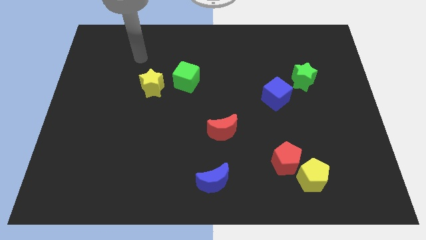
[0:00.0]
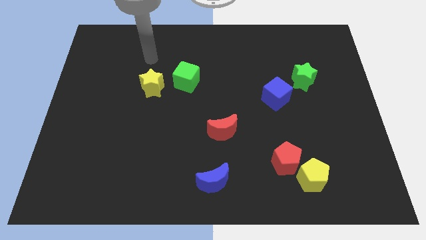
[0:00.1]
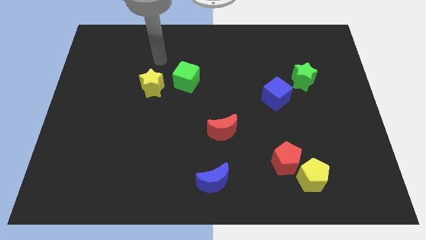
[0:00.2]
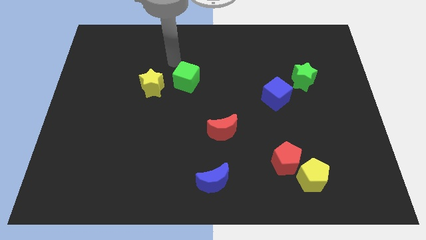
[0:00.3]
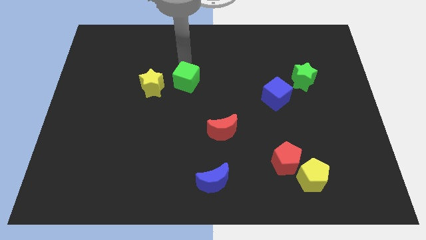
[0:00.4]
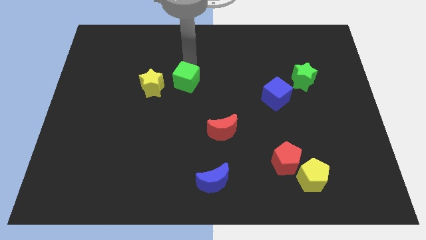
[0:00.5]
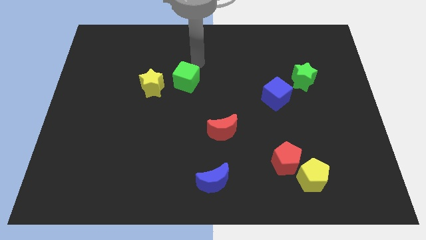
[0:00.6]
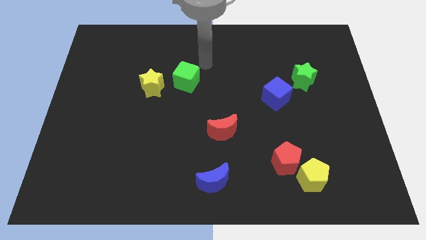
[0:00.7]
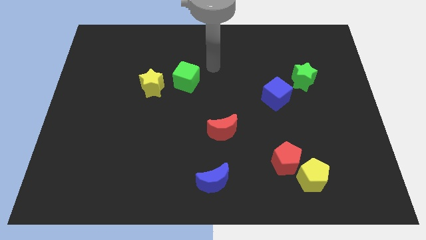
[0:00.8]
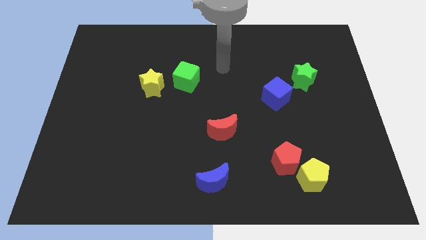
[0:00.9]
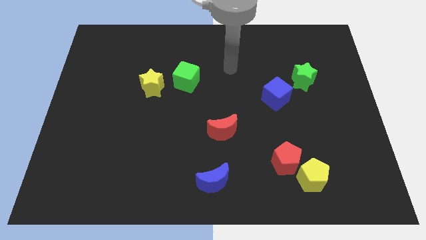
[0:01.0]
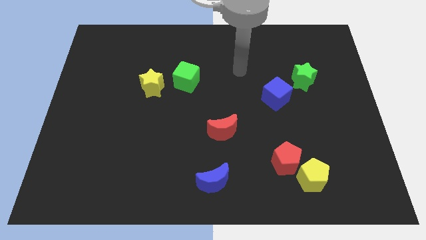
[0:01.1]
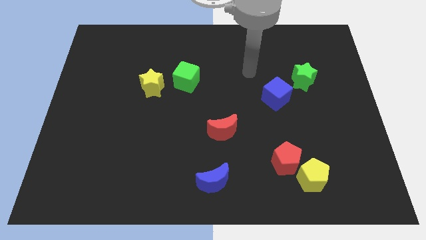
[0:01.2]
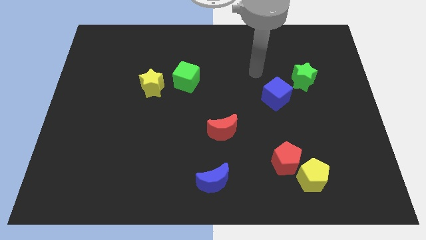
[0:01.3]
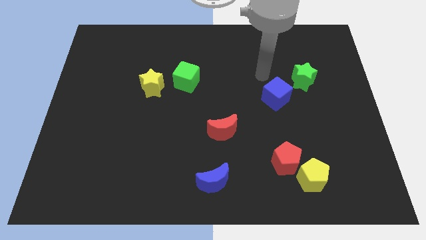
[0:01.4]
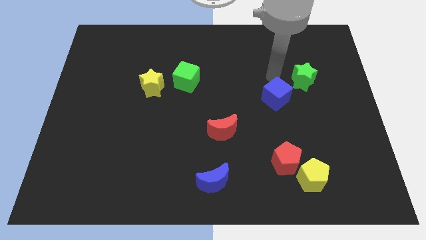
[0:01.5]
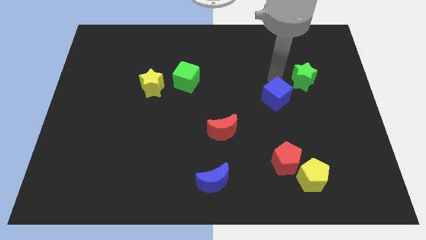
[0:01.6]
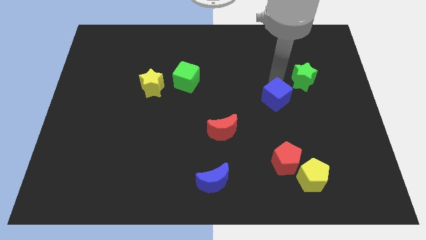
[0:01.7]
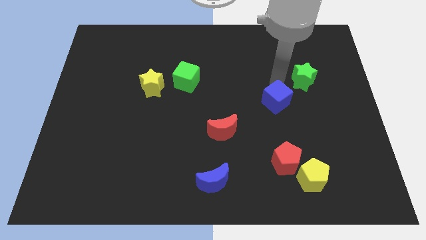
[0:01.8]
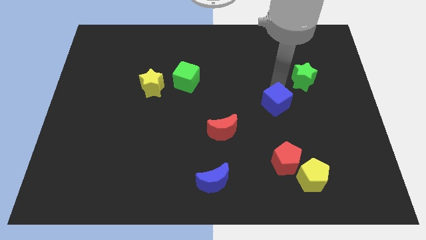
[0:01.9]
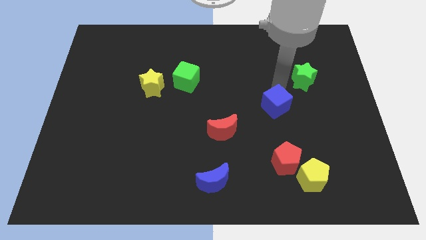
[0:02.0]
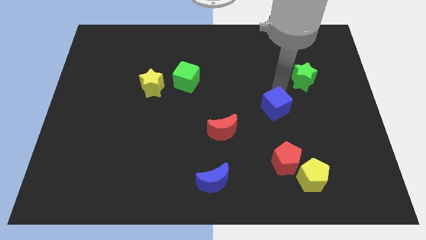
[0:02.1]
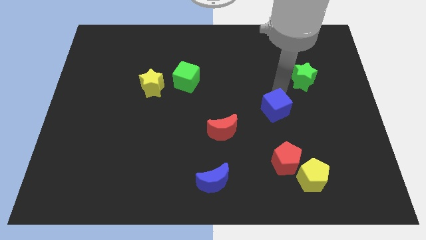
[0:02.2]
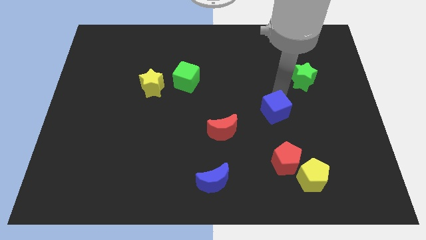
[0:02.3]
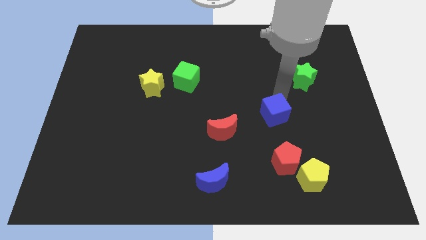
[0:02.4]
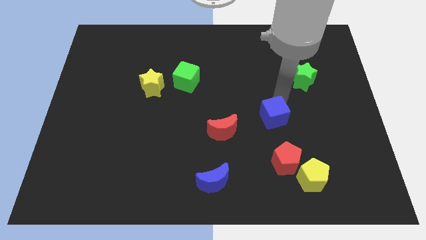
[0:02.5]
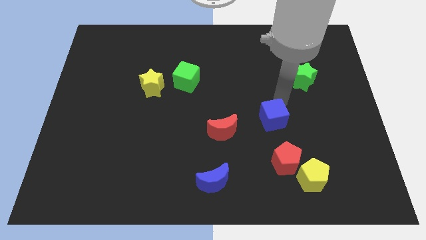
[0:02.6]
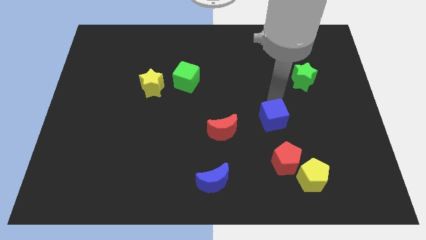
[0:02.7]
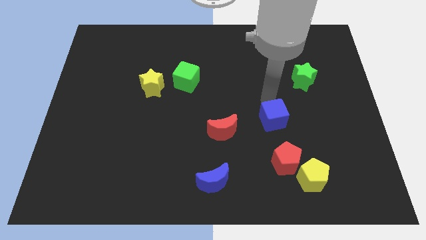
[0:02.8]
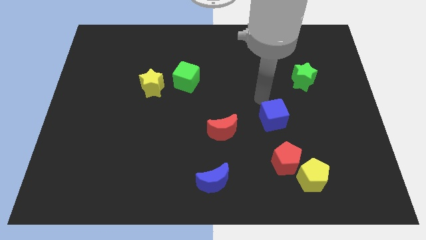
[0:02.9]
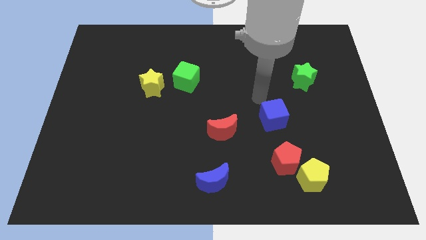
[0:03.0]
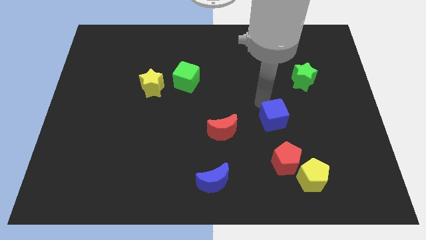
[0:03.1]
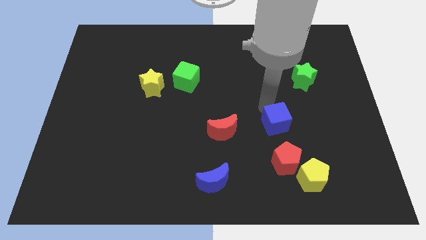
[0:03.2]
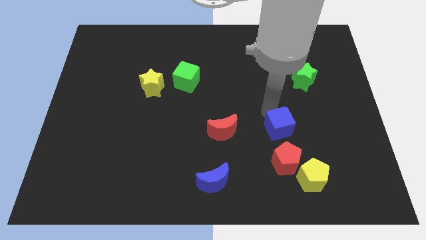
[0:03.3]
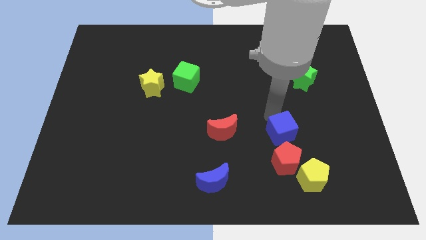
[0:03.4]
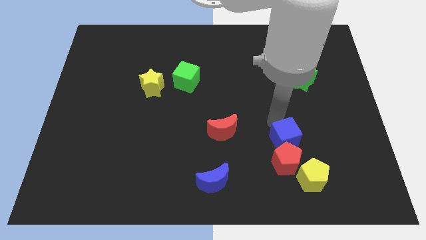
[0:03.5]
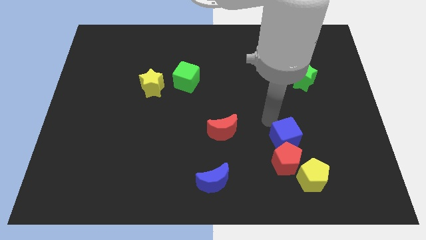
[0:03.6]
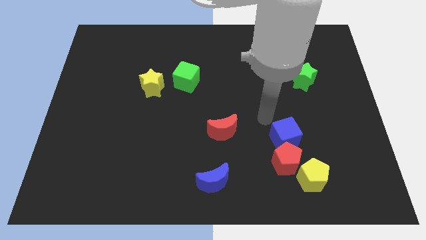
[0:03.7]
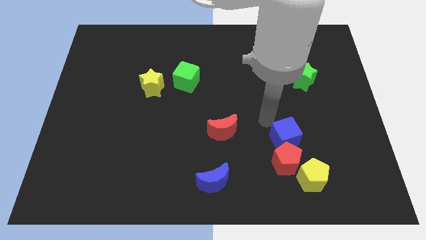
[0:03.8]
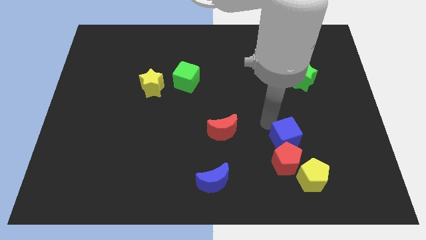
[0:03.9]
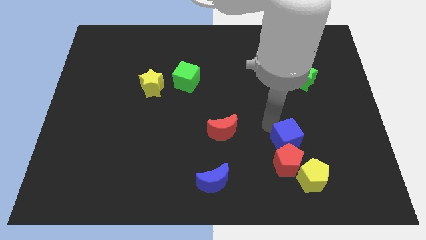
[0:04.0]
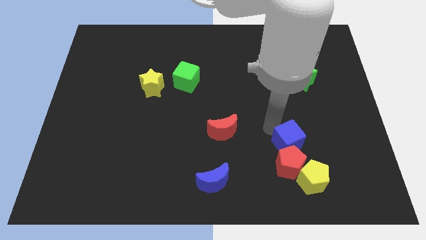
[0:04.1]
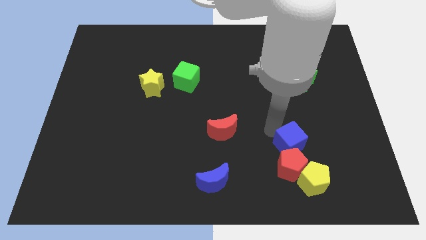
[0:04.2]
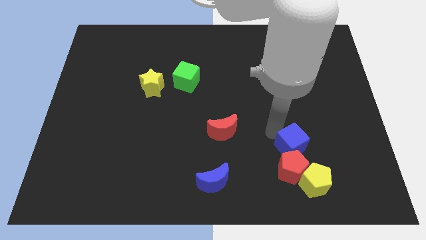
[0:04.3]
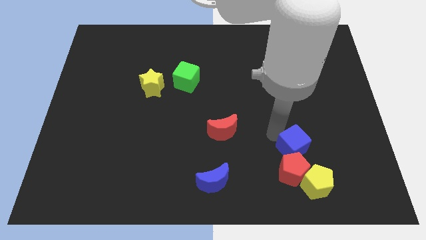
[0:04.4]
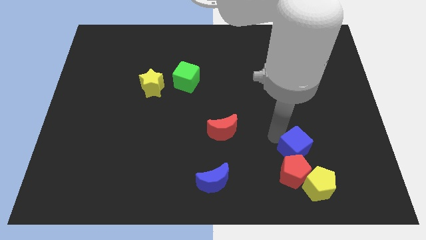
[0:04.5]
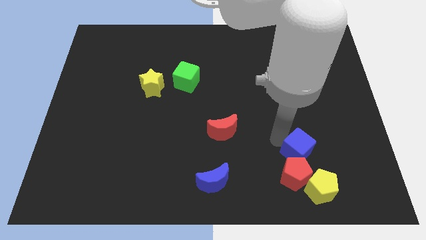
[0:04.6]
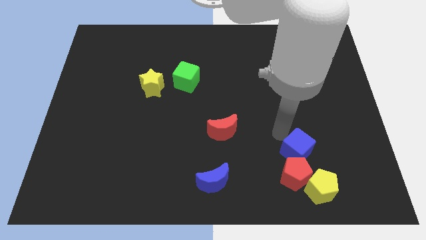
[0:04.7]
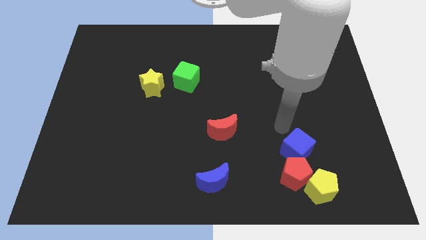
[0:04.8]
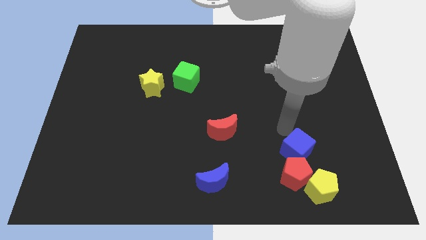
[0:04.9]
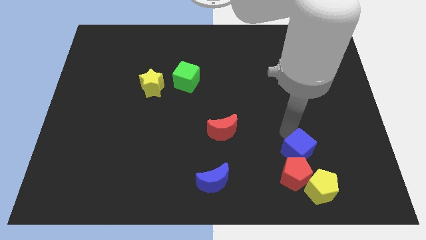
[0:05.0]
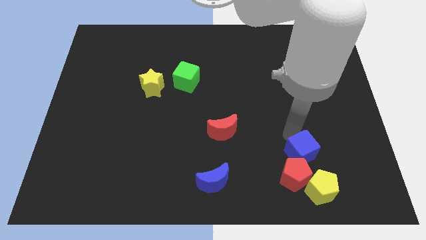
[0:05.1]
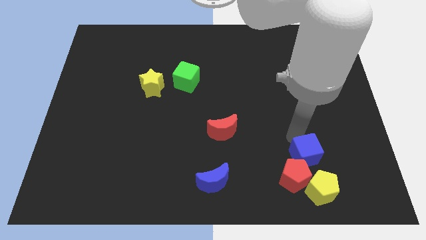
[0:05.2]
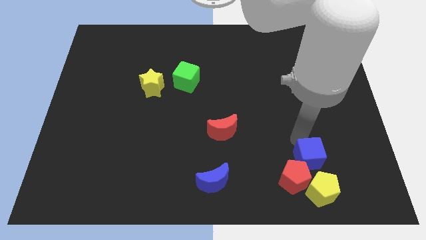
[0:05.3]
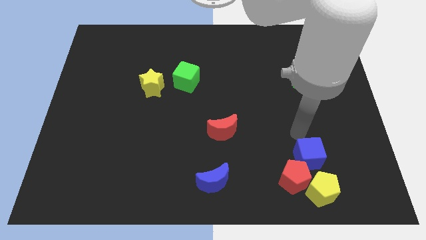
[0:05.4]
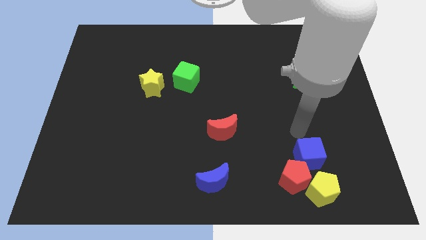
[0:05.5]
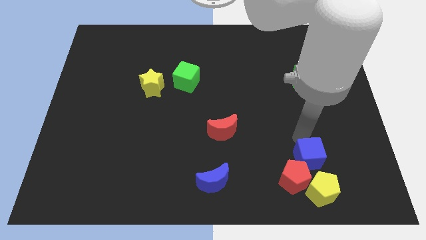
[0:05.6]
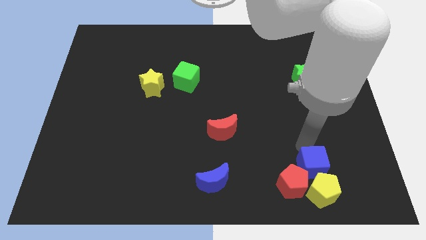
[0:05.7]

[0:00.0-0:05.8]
move the blue cube close to the yellow pentagon
